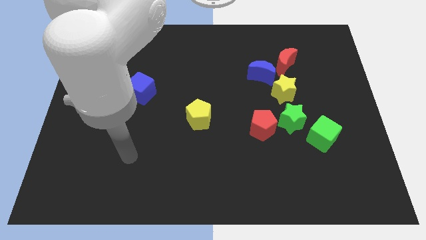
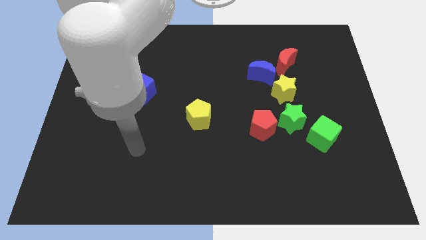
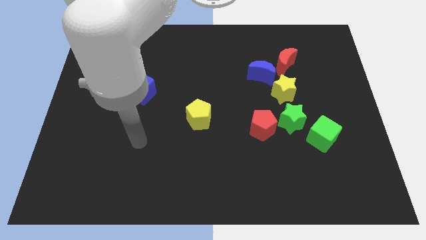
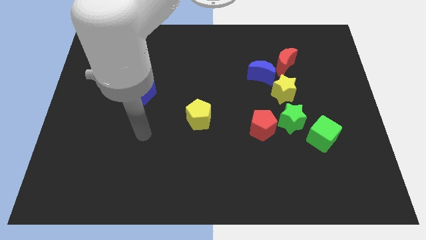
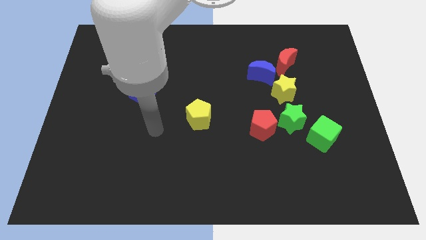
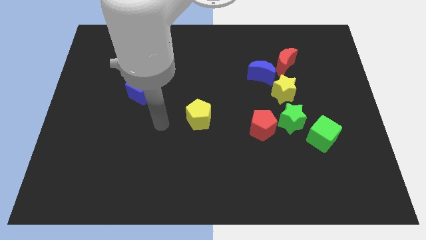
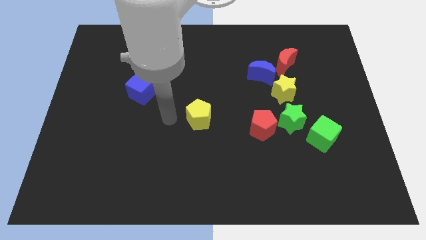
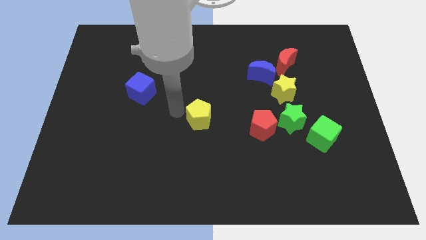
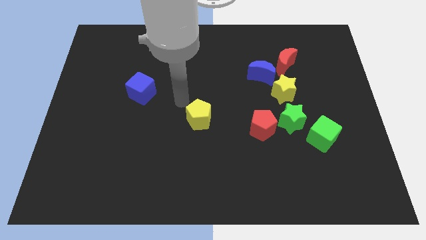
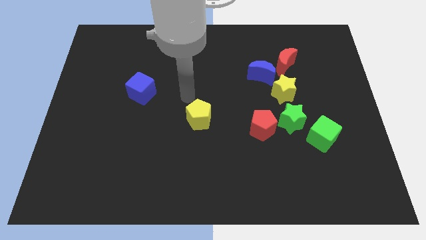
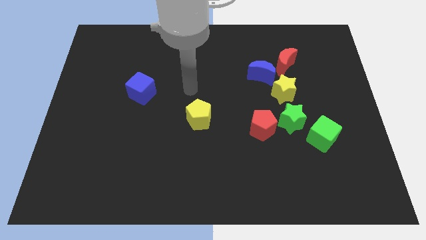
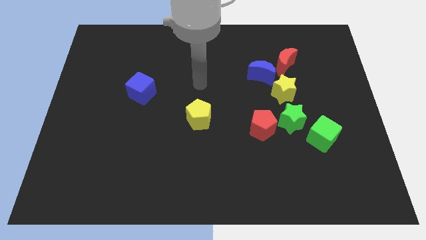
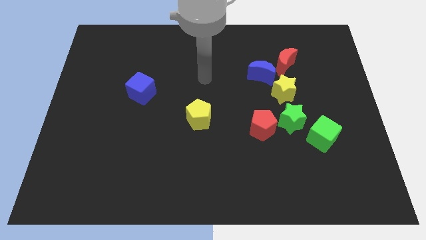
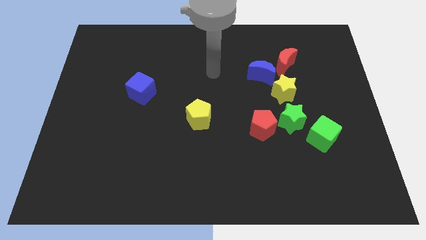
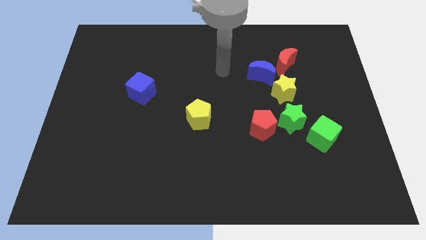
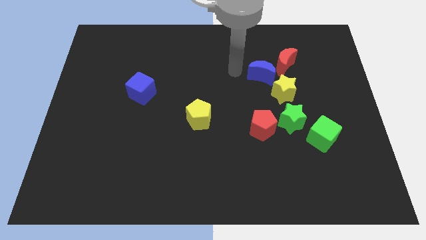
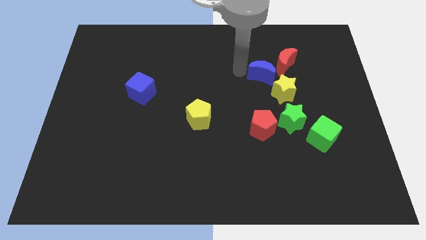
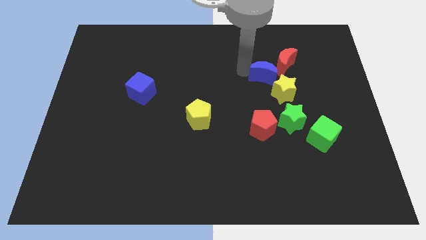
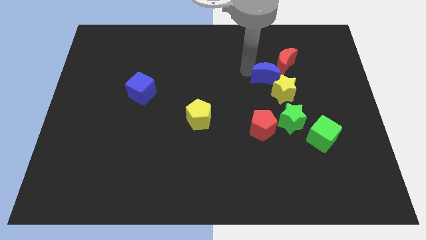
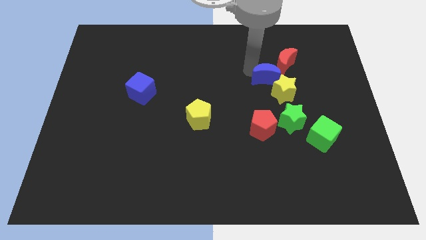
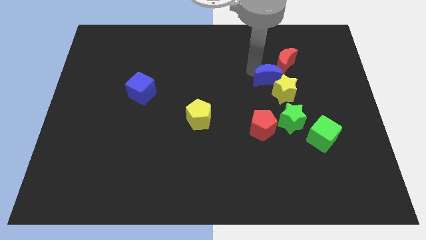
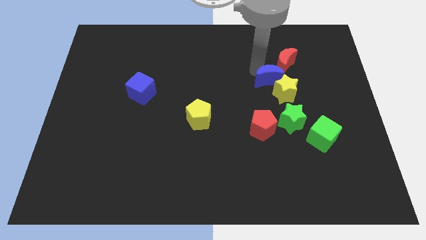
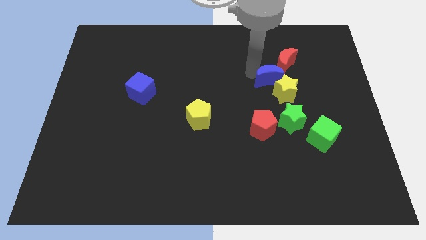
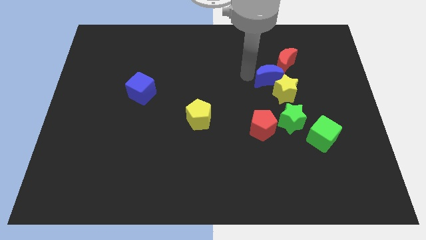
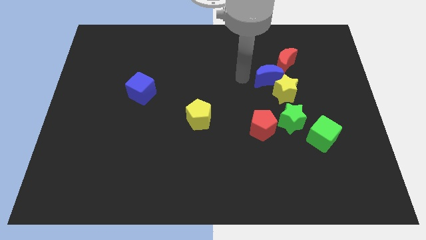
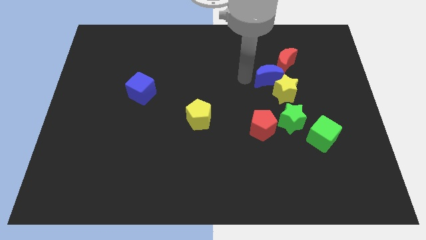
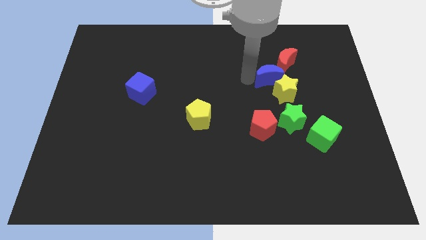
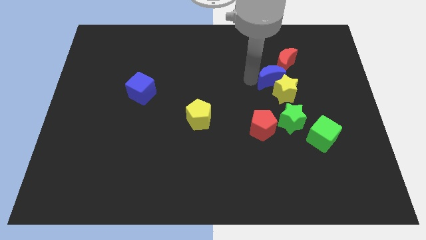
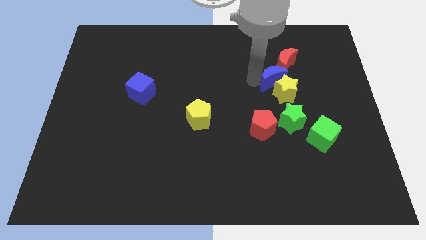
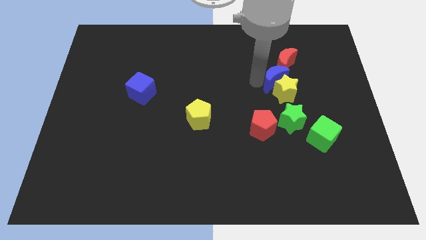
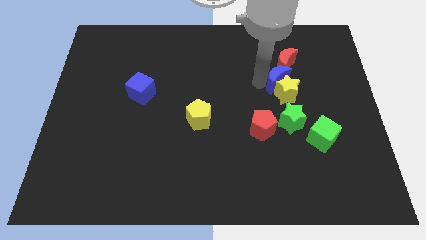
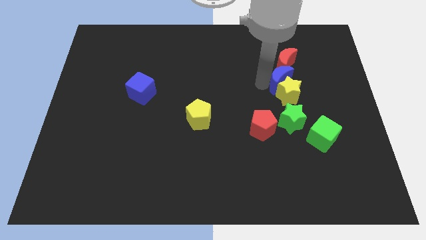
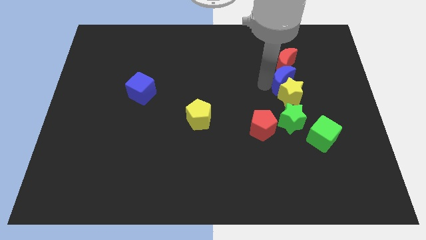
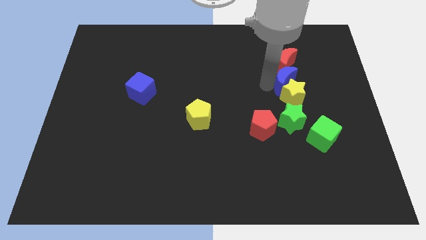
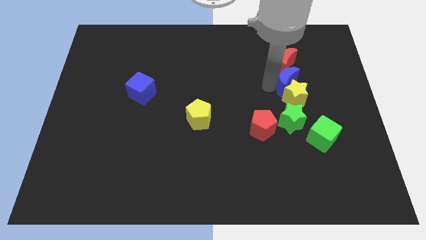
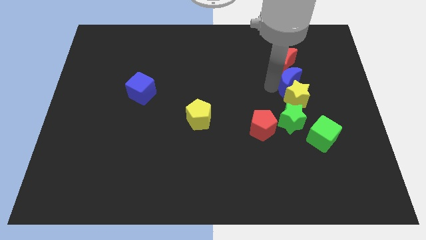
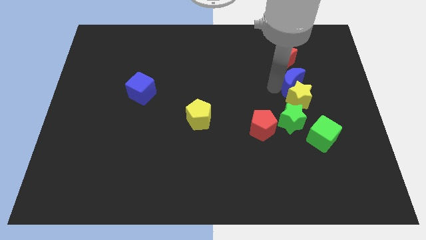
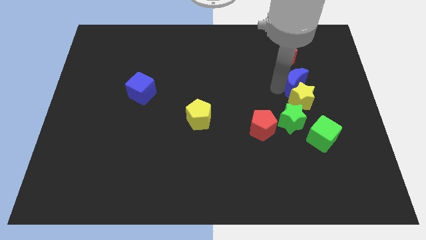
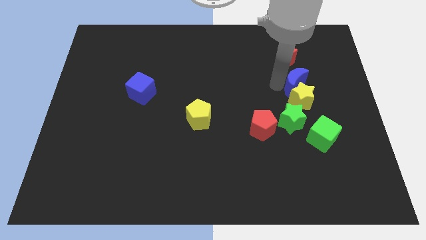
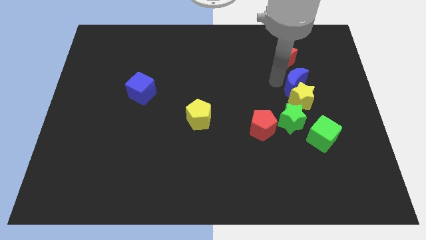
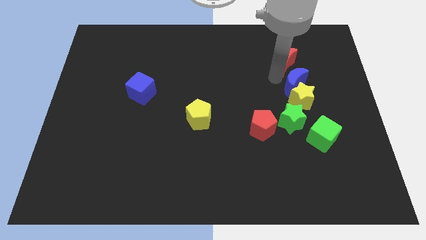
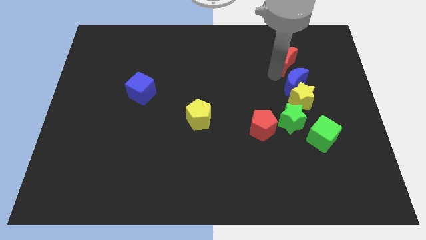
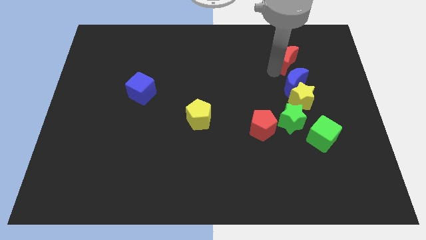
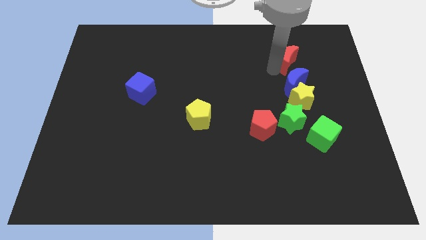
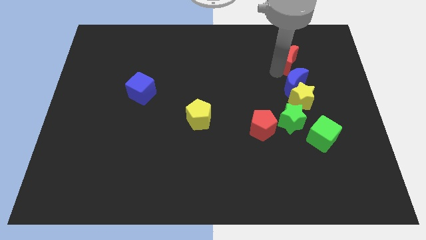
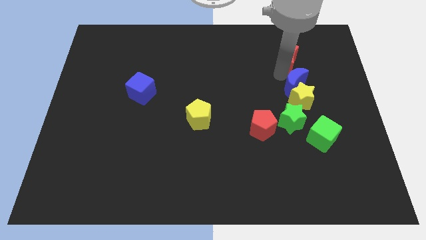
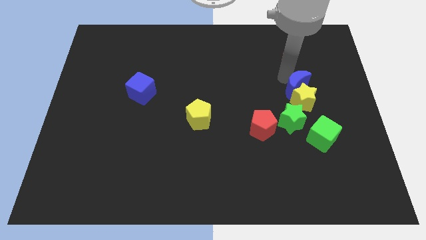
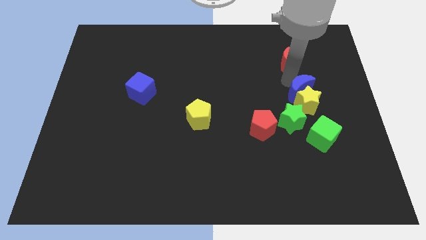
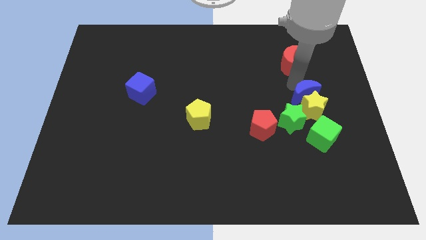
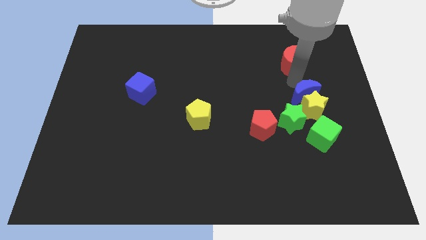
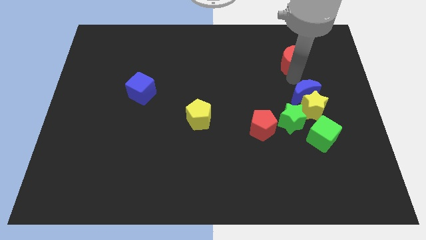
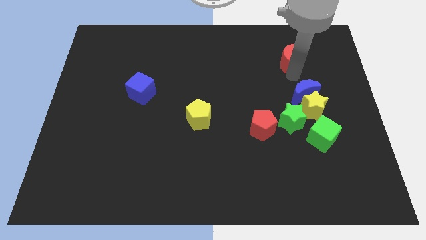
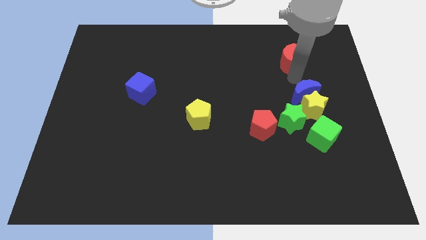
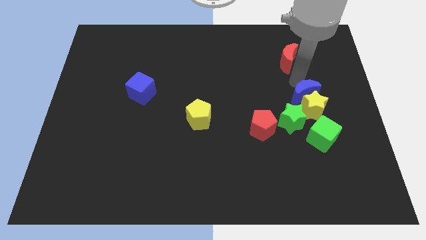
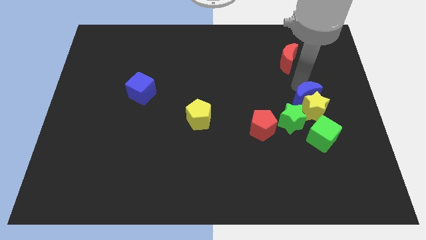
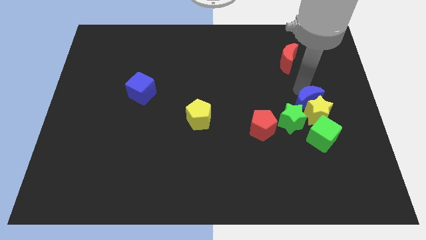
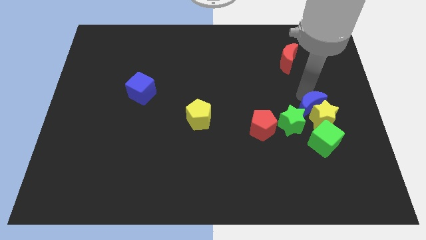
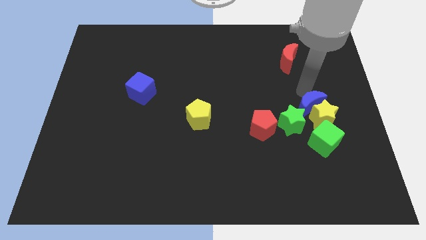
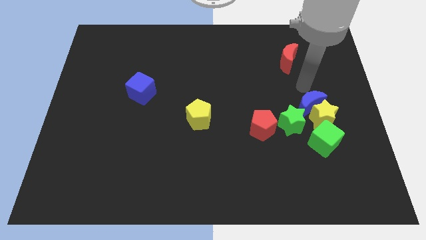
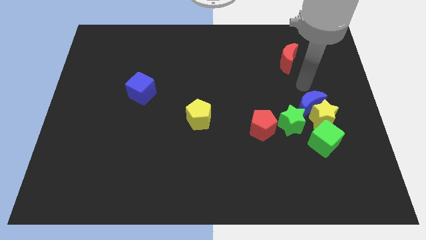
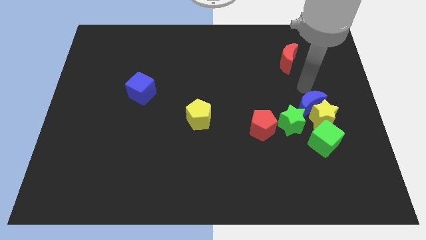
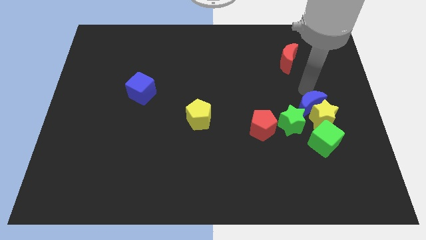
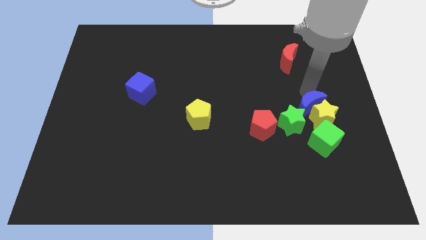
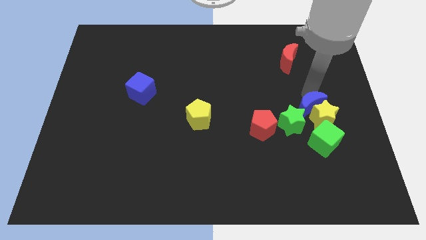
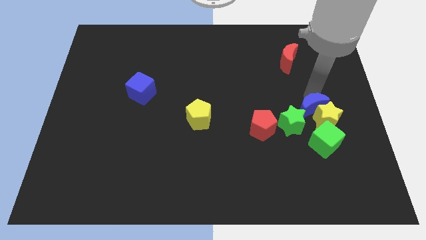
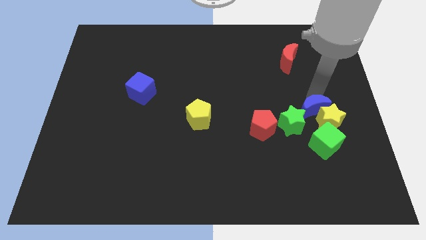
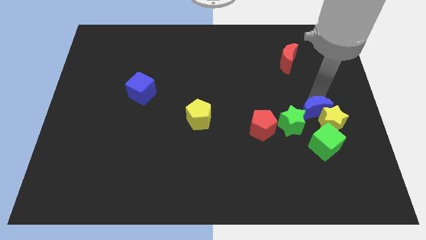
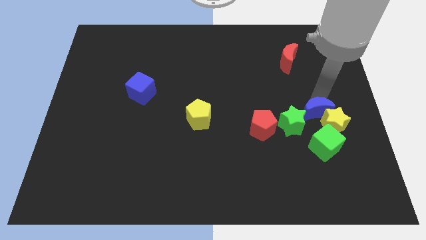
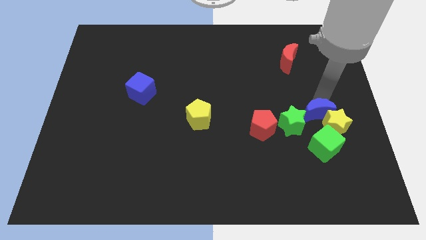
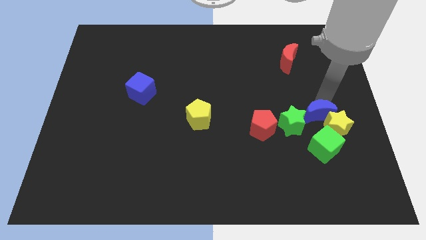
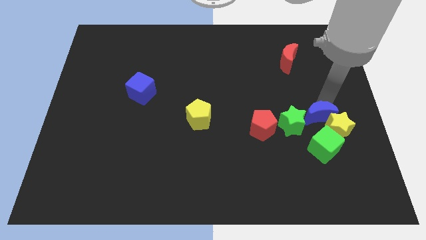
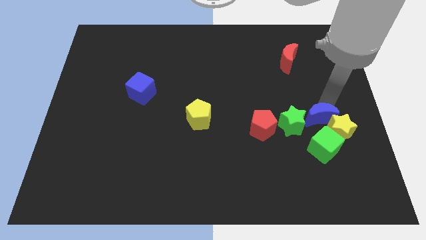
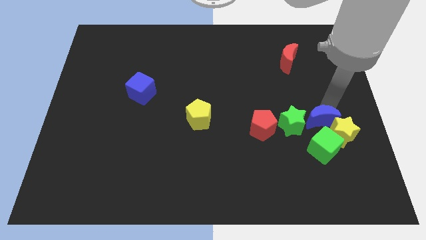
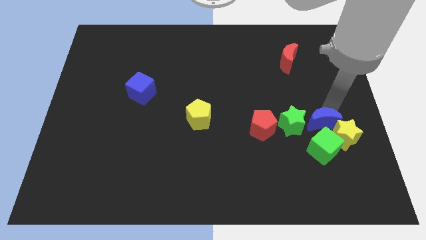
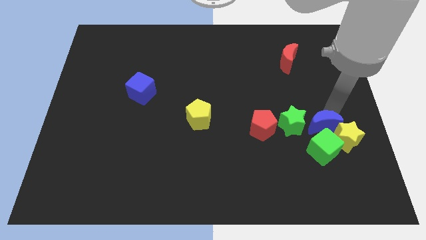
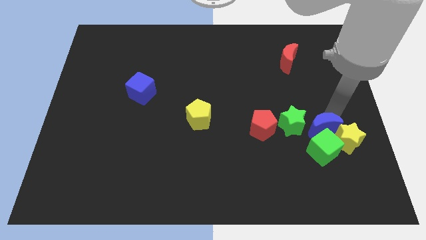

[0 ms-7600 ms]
push the blue moon close to the green cube
